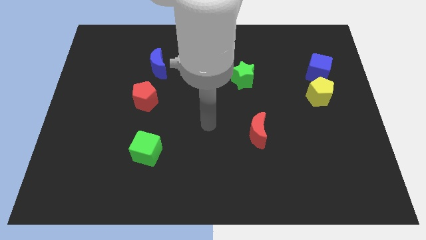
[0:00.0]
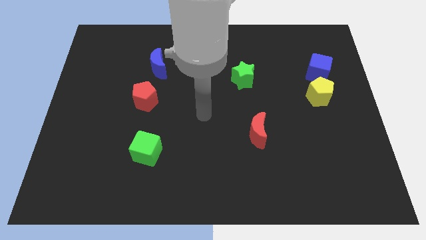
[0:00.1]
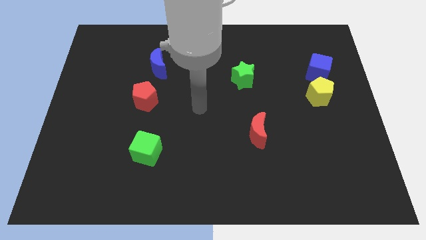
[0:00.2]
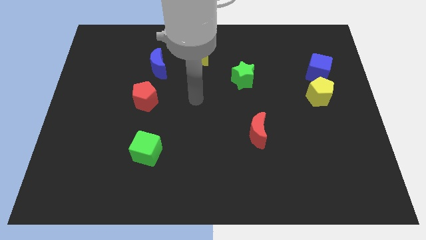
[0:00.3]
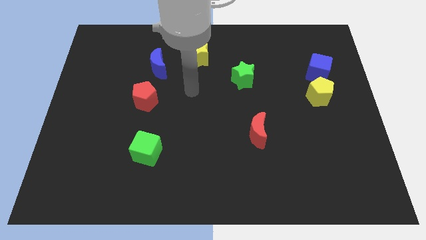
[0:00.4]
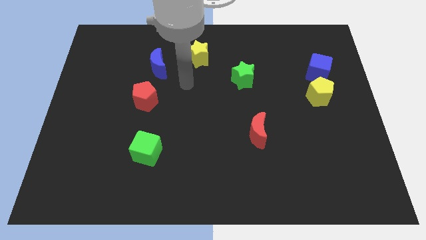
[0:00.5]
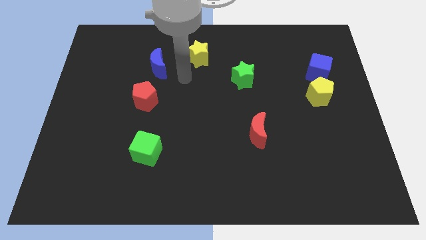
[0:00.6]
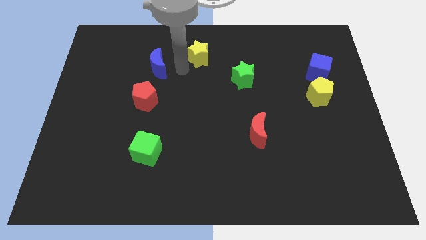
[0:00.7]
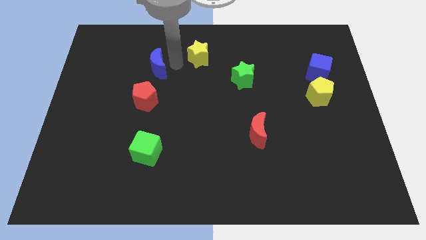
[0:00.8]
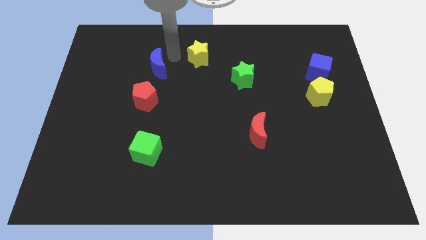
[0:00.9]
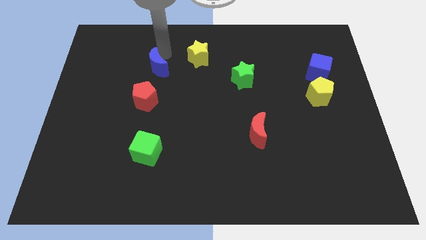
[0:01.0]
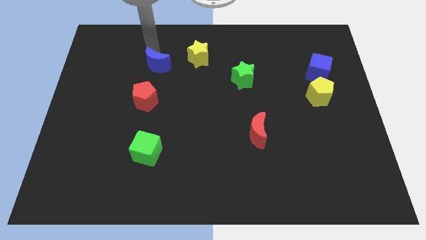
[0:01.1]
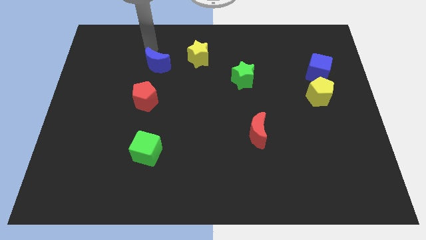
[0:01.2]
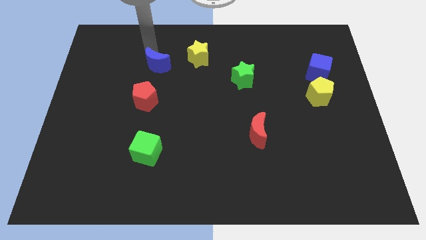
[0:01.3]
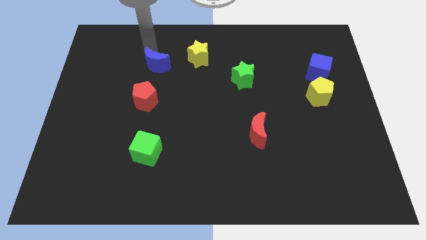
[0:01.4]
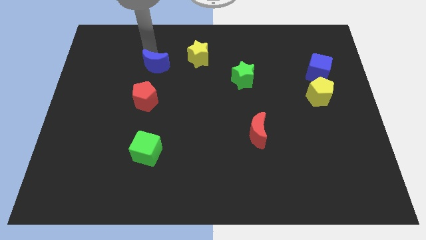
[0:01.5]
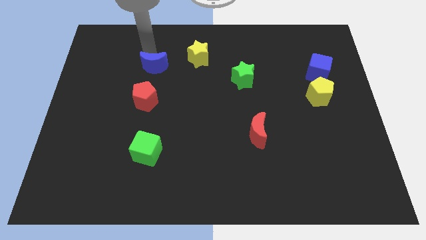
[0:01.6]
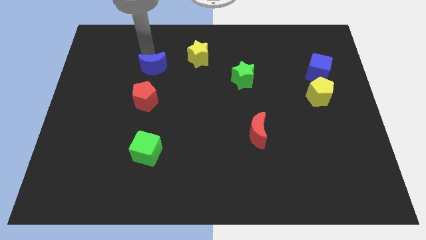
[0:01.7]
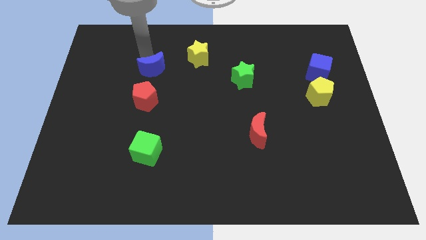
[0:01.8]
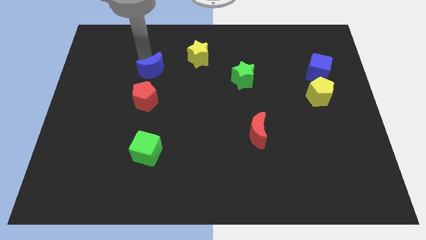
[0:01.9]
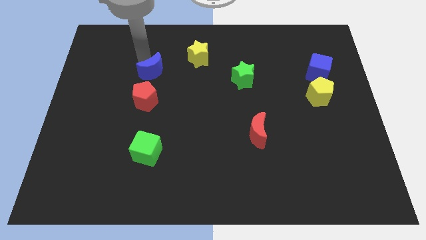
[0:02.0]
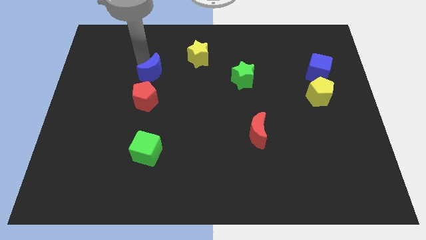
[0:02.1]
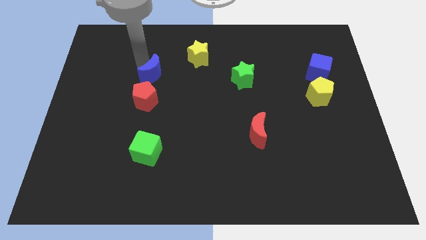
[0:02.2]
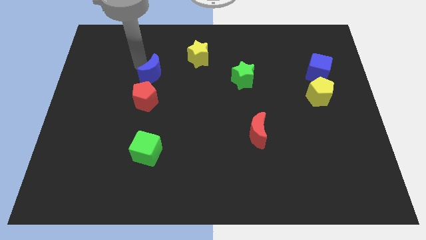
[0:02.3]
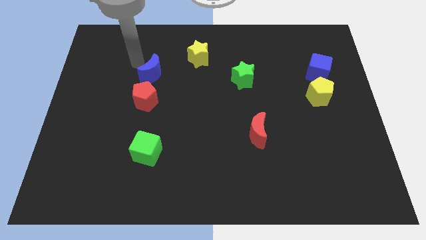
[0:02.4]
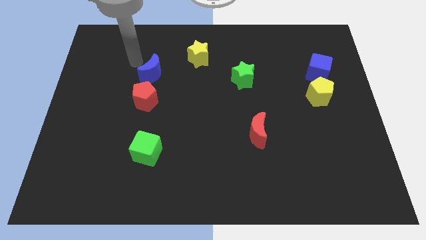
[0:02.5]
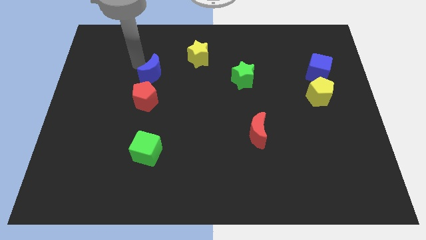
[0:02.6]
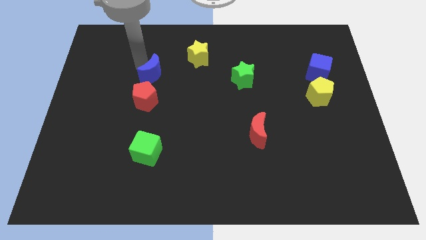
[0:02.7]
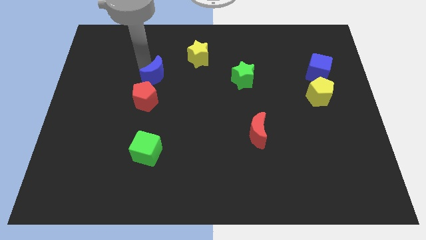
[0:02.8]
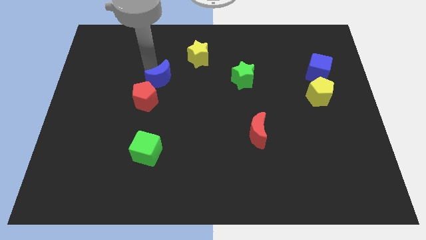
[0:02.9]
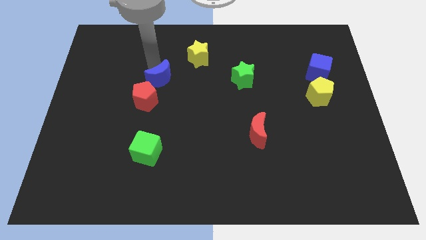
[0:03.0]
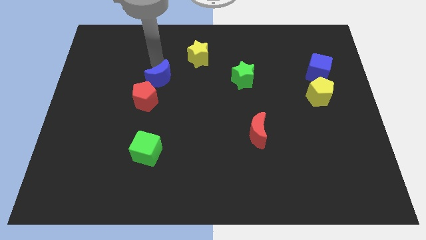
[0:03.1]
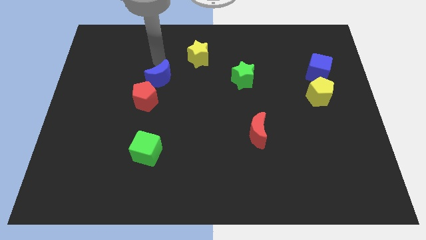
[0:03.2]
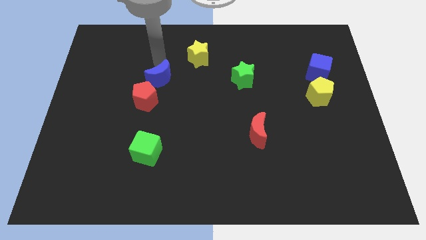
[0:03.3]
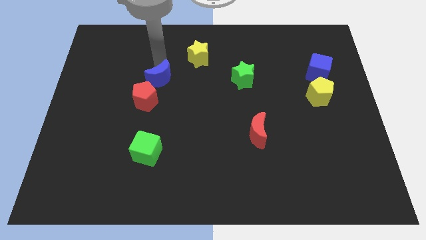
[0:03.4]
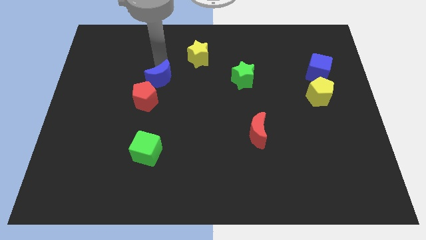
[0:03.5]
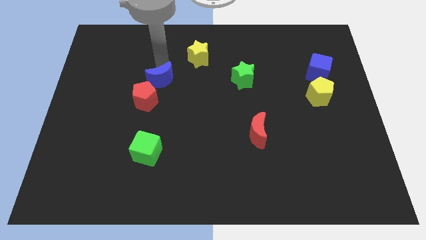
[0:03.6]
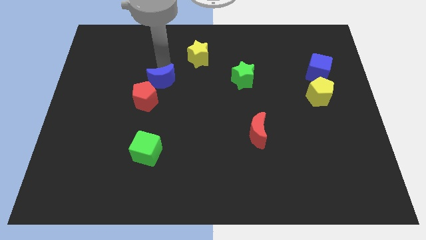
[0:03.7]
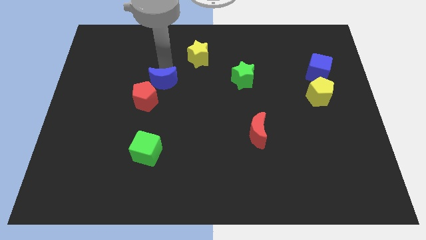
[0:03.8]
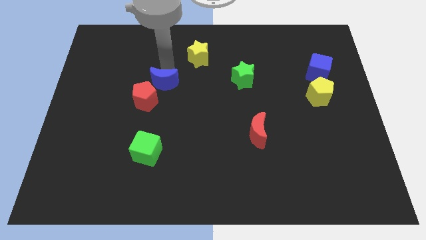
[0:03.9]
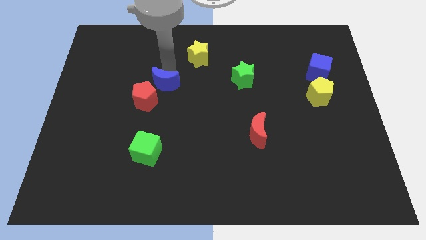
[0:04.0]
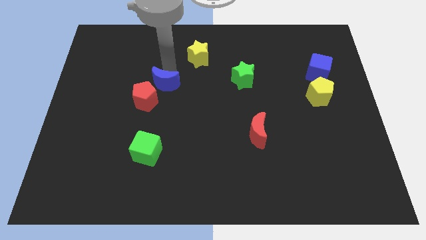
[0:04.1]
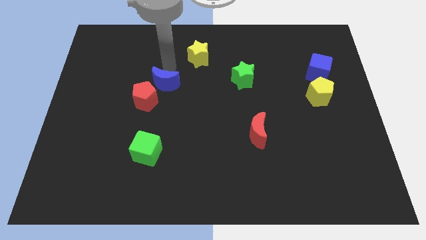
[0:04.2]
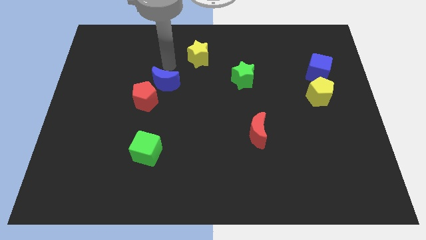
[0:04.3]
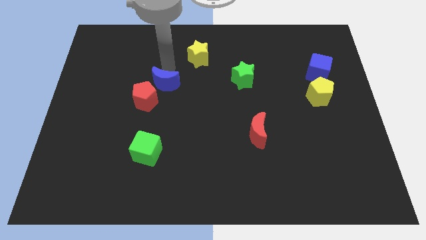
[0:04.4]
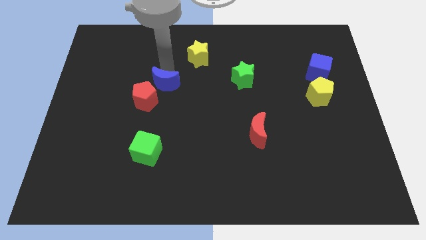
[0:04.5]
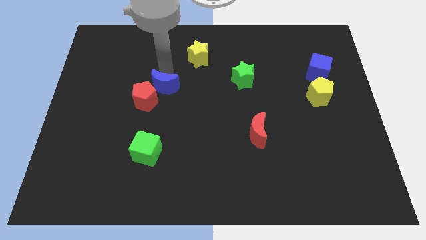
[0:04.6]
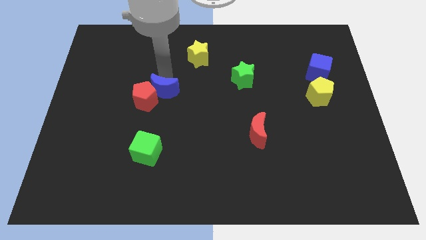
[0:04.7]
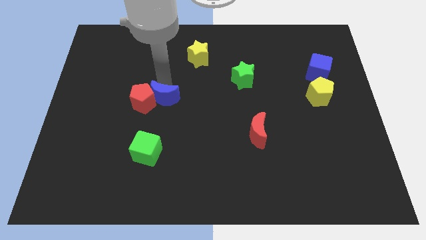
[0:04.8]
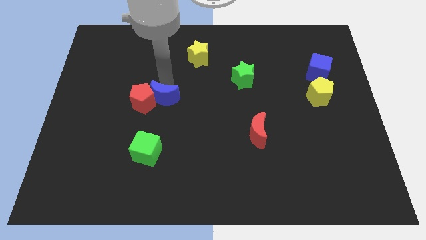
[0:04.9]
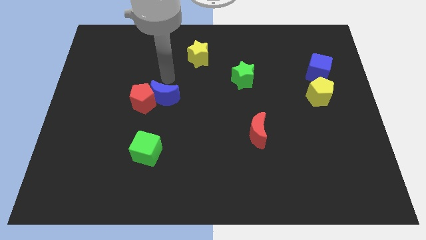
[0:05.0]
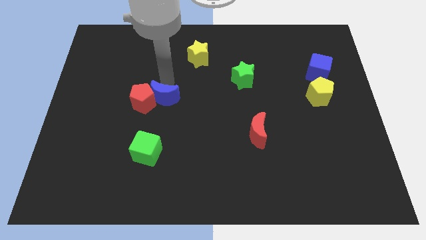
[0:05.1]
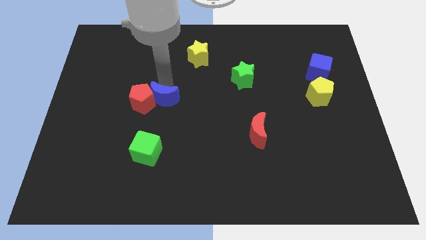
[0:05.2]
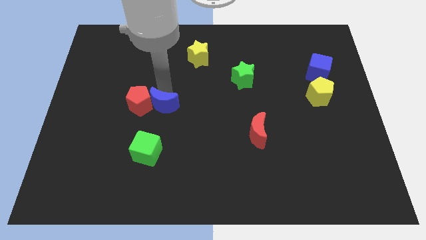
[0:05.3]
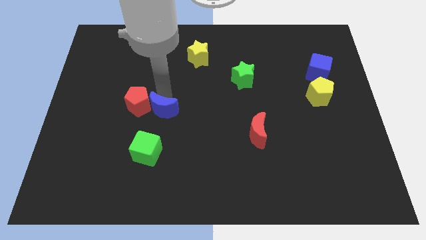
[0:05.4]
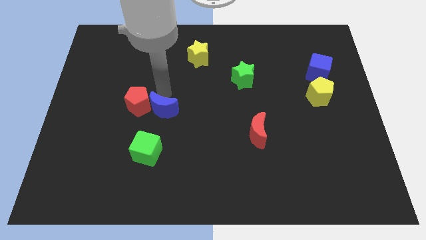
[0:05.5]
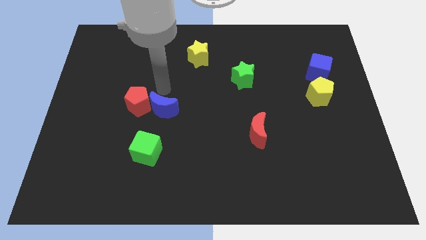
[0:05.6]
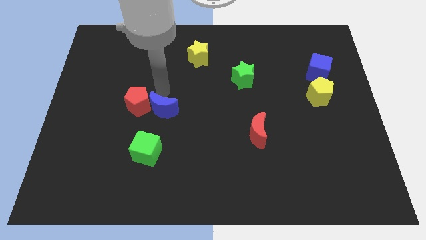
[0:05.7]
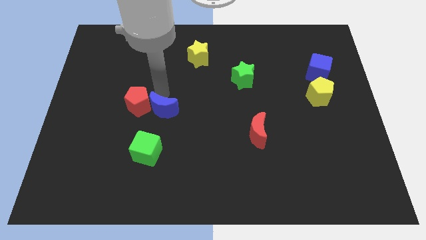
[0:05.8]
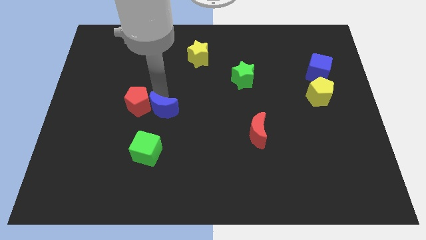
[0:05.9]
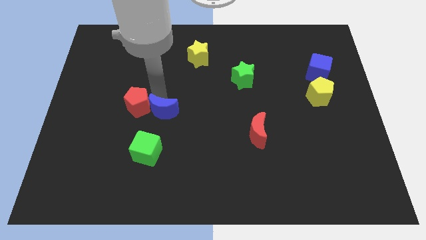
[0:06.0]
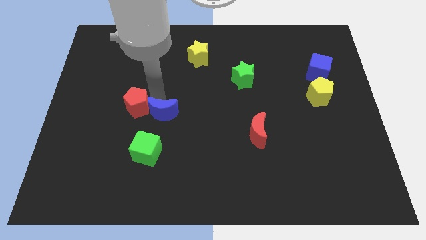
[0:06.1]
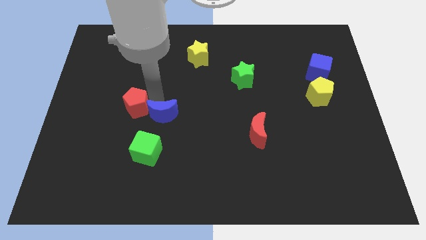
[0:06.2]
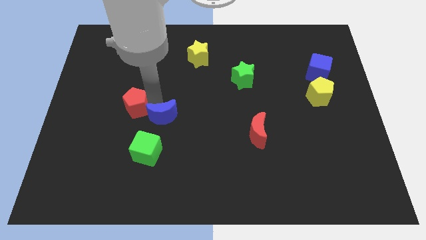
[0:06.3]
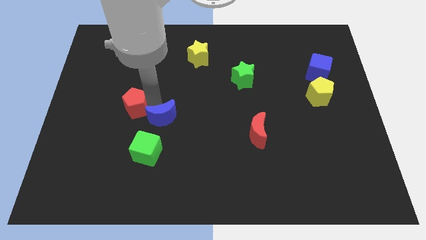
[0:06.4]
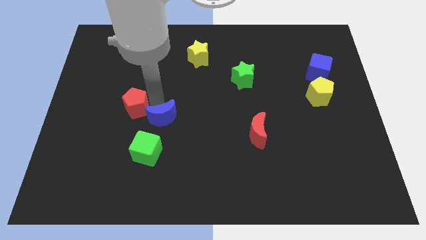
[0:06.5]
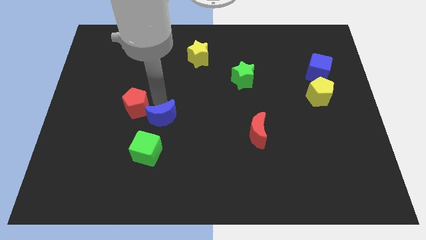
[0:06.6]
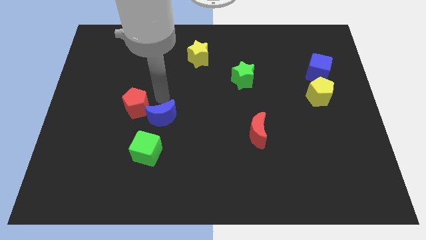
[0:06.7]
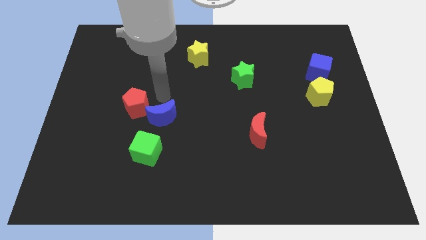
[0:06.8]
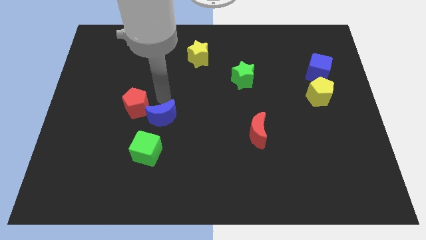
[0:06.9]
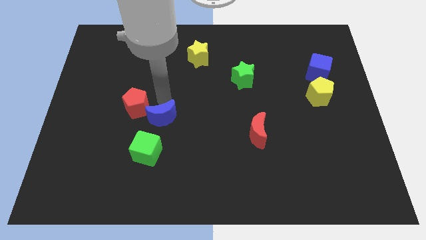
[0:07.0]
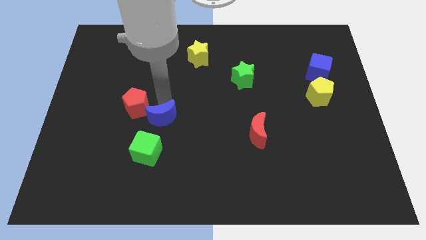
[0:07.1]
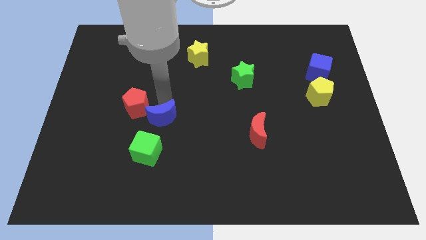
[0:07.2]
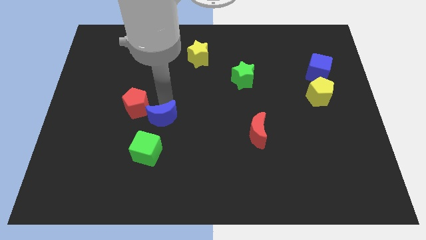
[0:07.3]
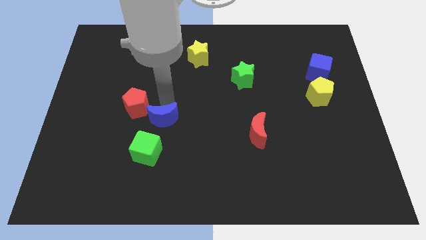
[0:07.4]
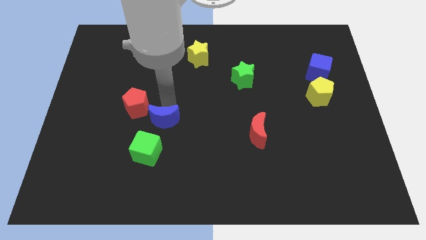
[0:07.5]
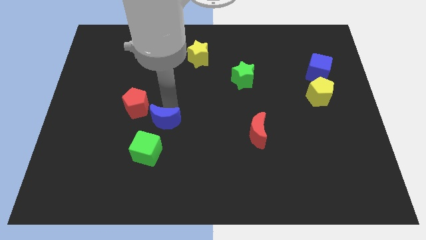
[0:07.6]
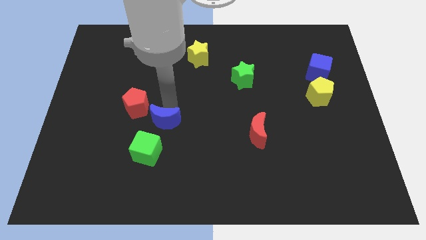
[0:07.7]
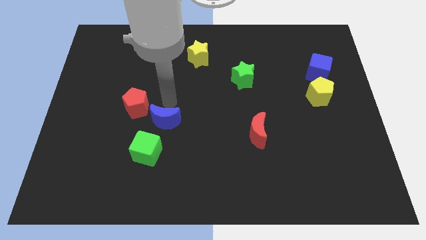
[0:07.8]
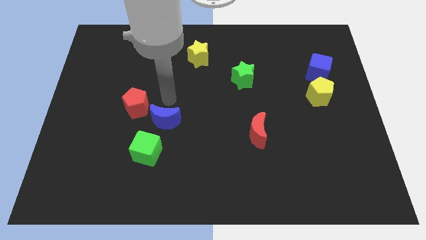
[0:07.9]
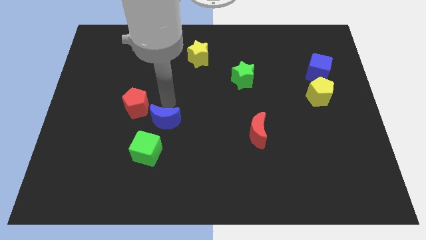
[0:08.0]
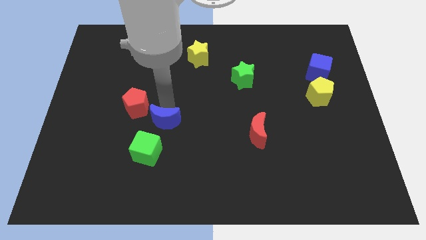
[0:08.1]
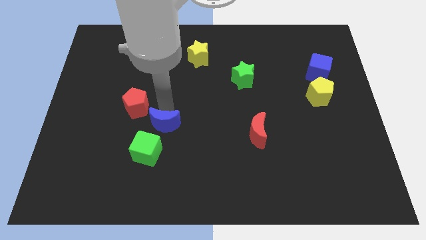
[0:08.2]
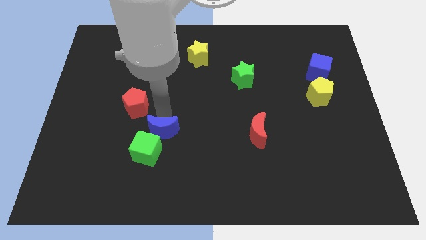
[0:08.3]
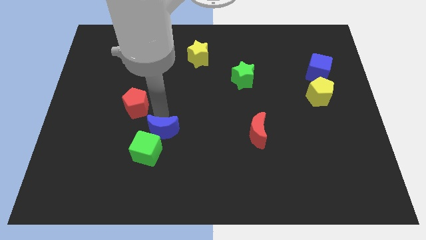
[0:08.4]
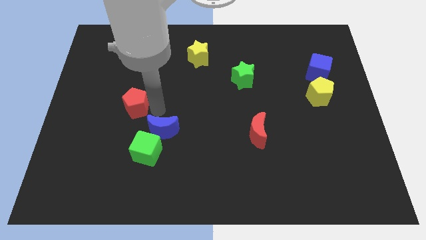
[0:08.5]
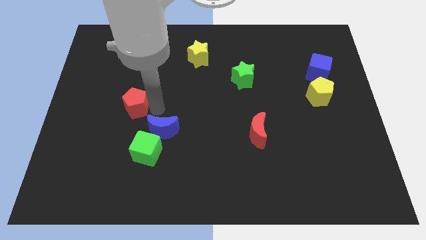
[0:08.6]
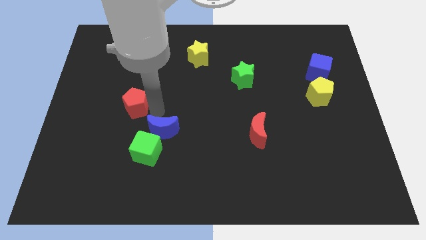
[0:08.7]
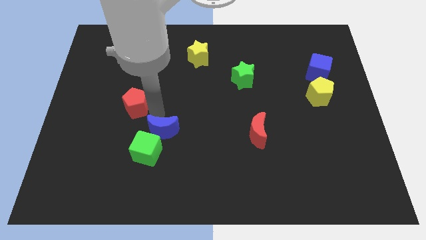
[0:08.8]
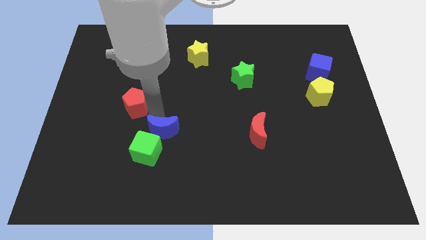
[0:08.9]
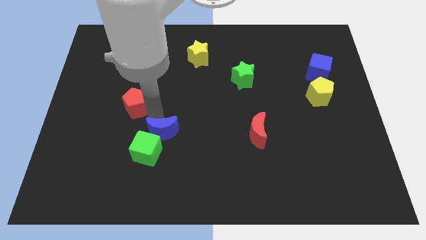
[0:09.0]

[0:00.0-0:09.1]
slide the blue moon downwards
